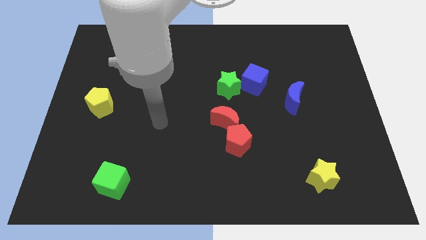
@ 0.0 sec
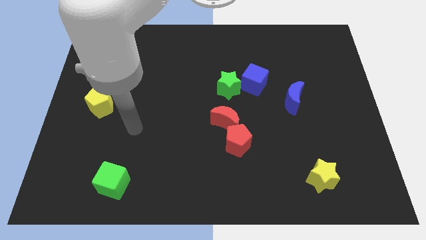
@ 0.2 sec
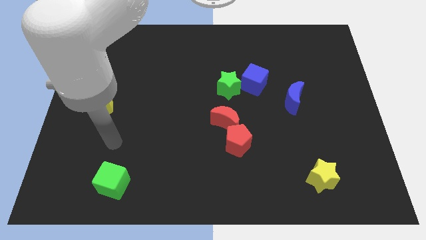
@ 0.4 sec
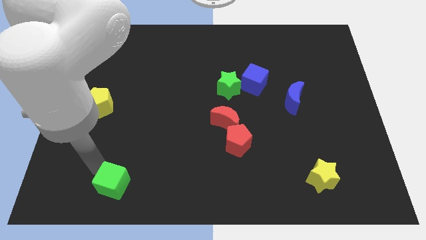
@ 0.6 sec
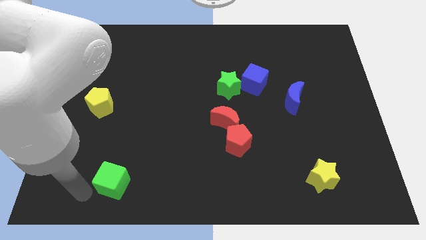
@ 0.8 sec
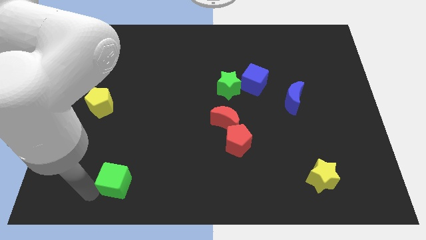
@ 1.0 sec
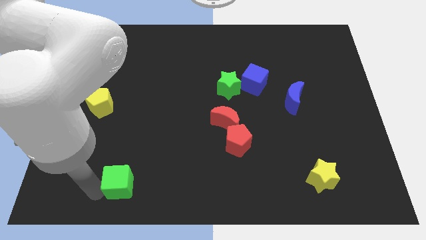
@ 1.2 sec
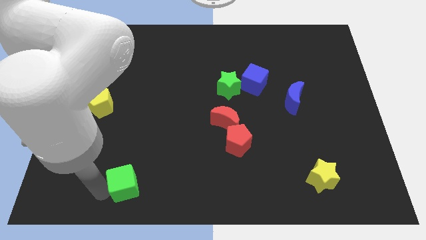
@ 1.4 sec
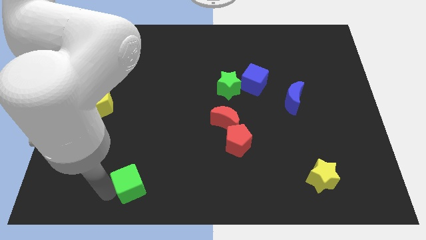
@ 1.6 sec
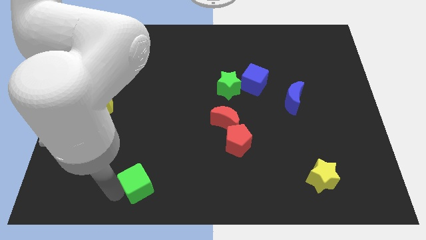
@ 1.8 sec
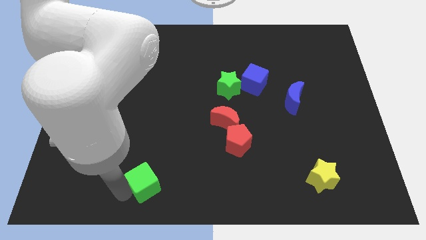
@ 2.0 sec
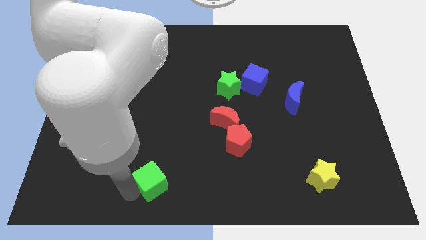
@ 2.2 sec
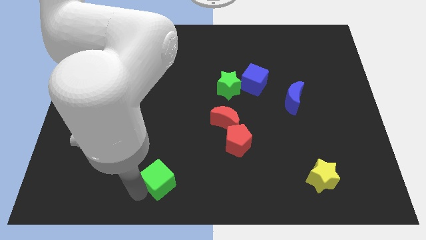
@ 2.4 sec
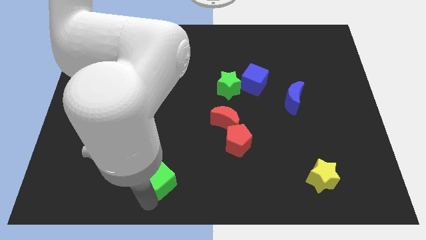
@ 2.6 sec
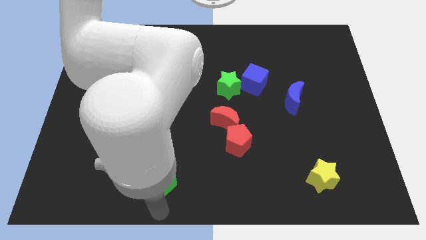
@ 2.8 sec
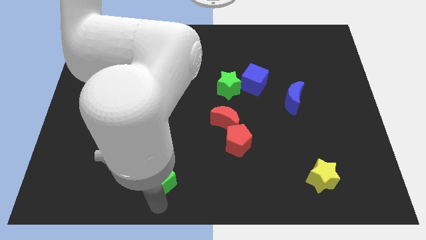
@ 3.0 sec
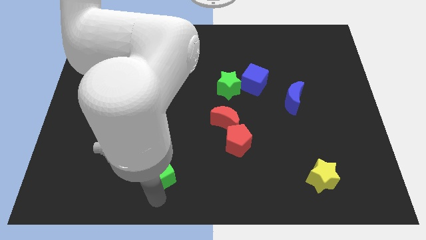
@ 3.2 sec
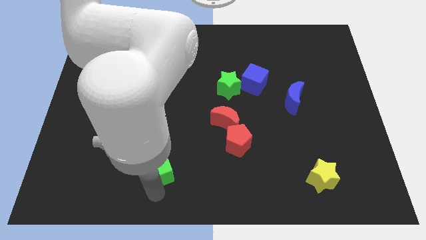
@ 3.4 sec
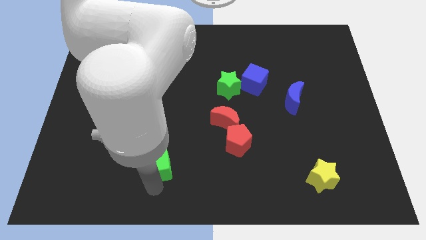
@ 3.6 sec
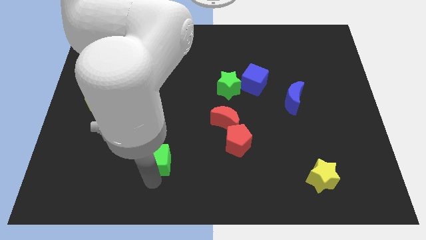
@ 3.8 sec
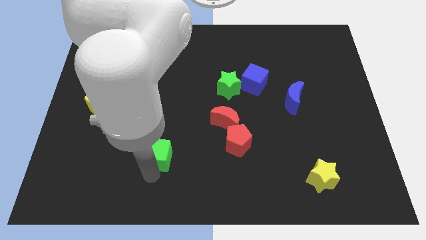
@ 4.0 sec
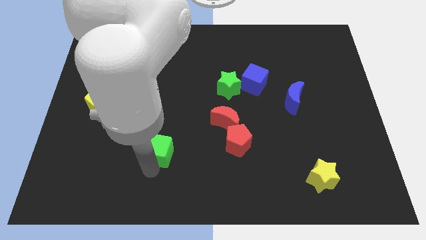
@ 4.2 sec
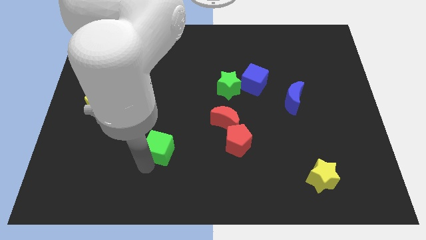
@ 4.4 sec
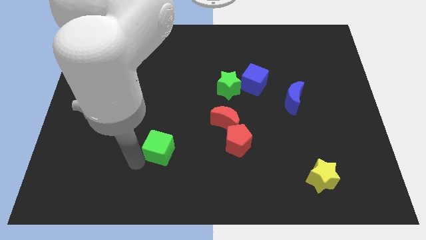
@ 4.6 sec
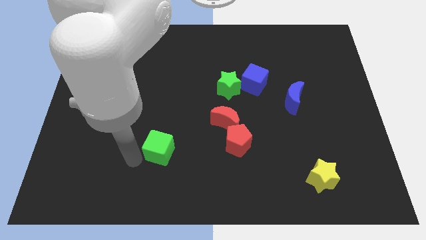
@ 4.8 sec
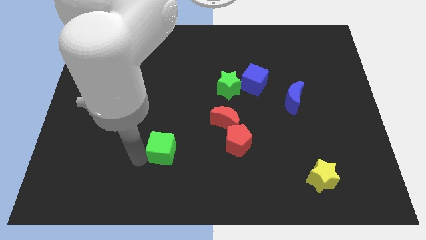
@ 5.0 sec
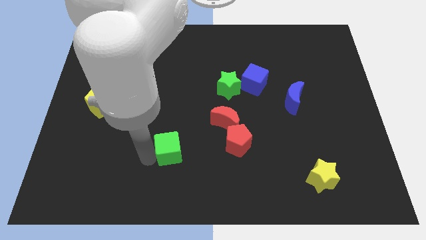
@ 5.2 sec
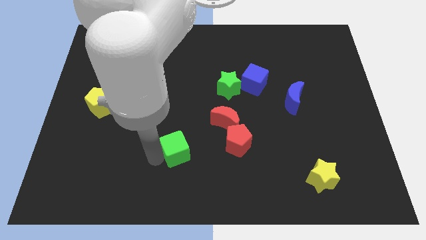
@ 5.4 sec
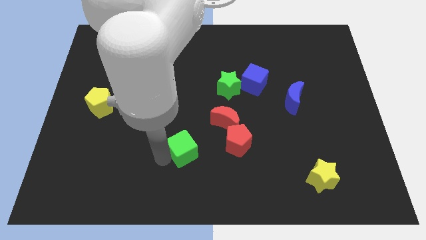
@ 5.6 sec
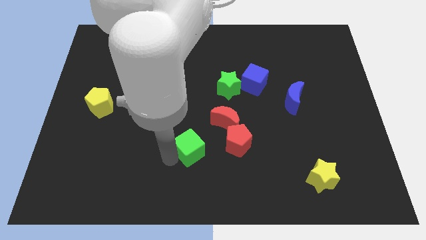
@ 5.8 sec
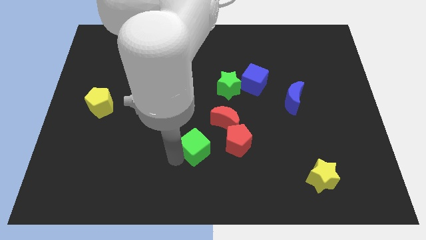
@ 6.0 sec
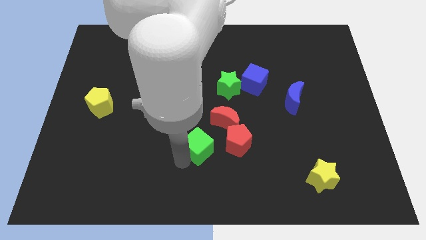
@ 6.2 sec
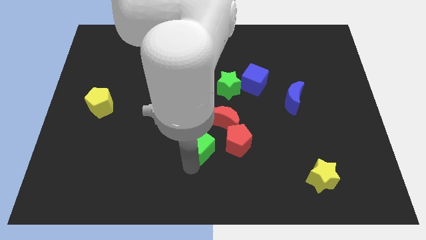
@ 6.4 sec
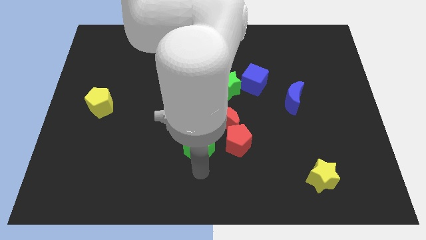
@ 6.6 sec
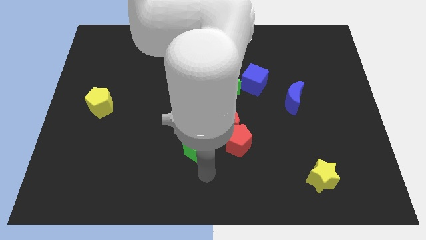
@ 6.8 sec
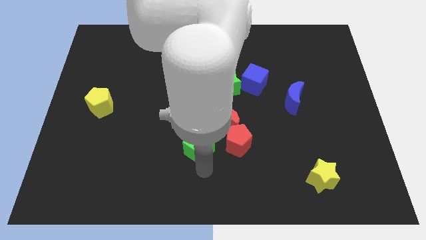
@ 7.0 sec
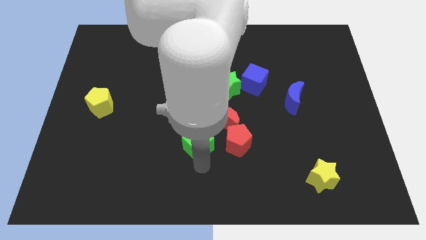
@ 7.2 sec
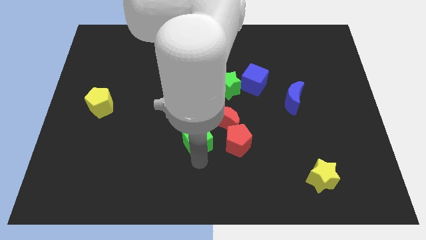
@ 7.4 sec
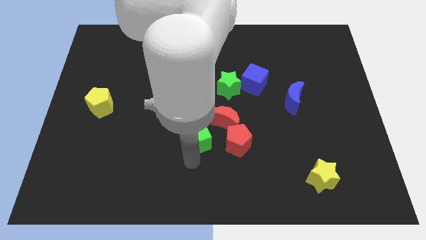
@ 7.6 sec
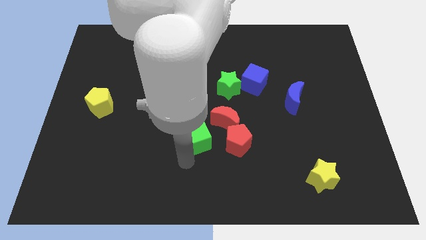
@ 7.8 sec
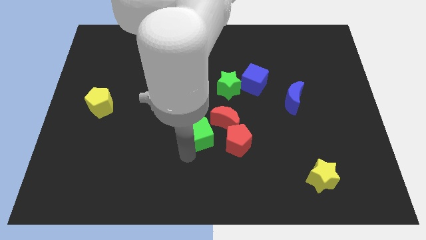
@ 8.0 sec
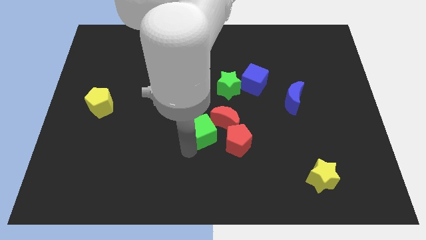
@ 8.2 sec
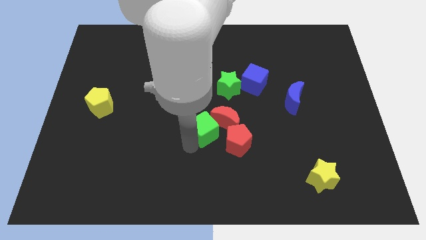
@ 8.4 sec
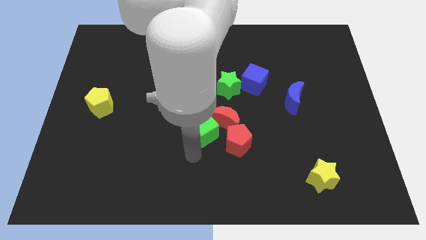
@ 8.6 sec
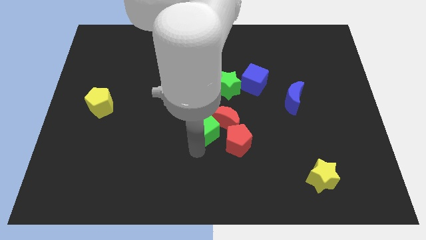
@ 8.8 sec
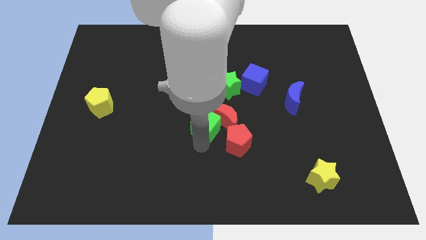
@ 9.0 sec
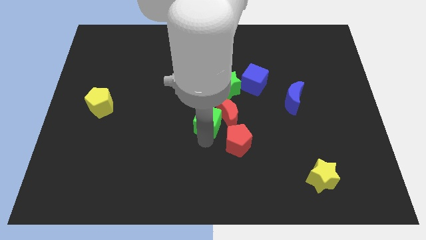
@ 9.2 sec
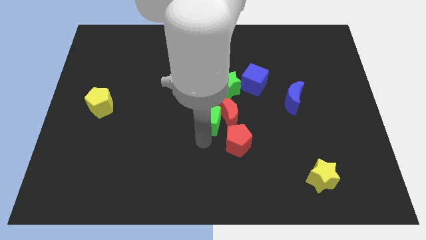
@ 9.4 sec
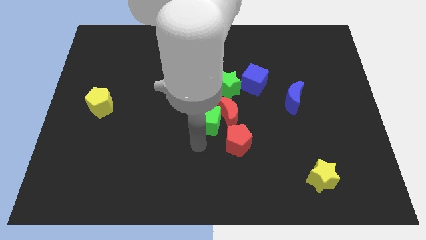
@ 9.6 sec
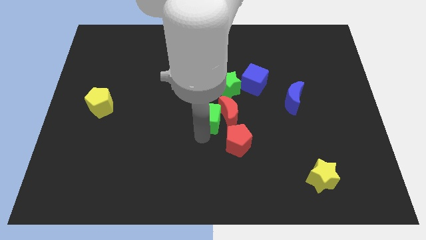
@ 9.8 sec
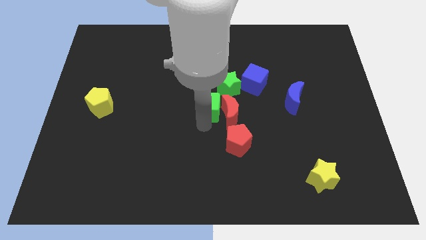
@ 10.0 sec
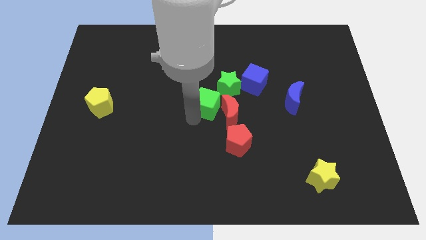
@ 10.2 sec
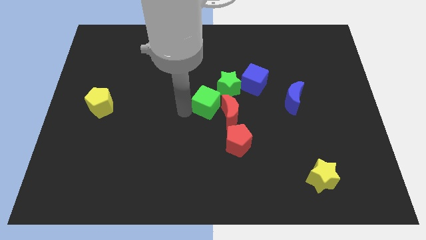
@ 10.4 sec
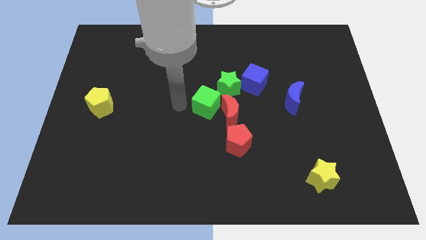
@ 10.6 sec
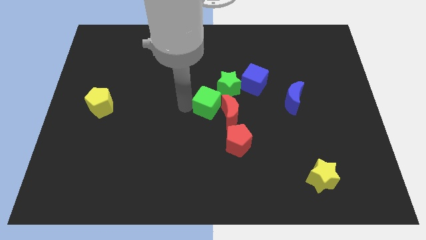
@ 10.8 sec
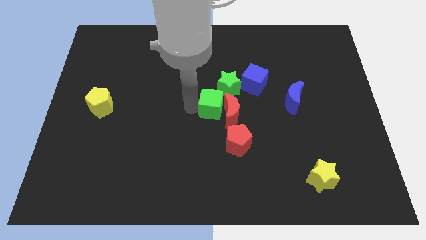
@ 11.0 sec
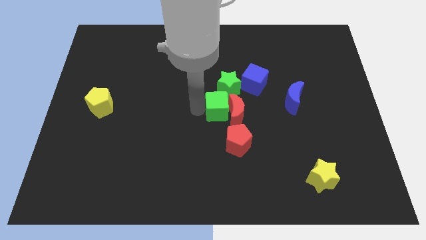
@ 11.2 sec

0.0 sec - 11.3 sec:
slide the green cube above the red pentagon

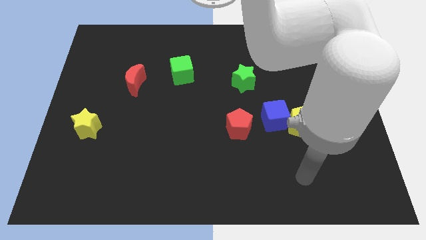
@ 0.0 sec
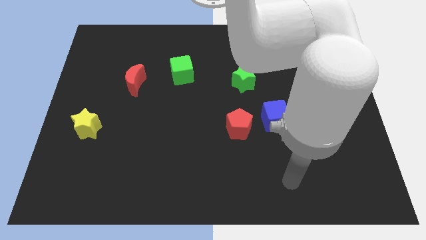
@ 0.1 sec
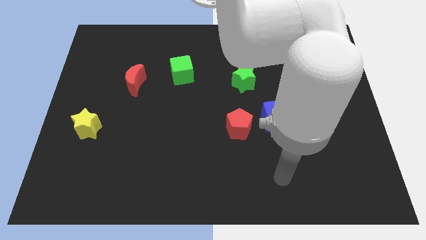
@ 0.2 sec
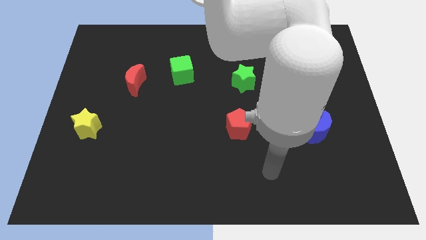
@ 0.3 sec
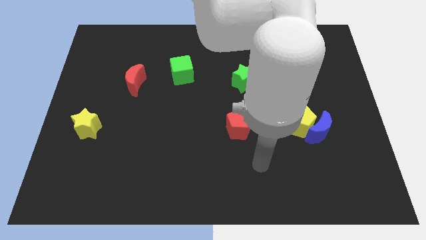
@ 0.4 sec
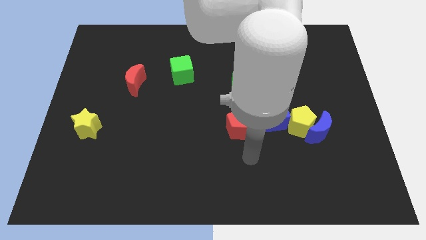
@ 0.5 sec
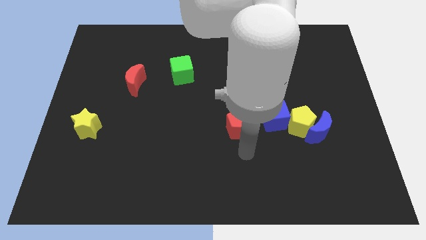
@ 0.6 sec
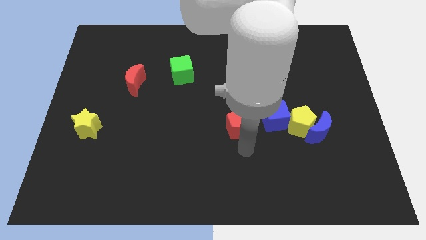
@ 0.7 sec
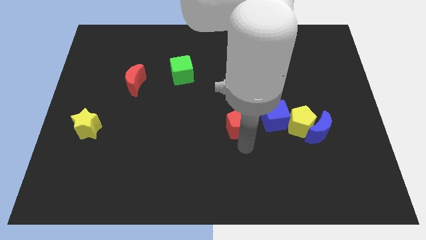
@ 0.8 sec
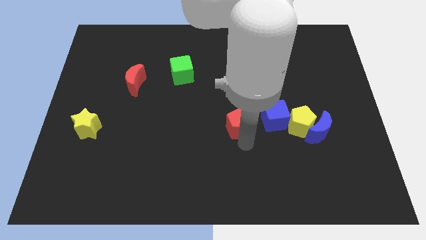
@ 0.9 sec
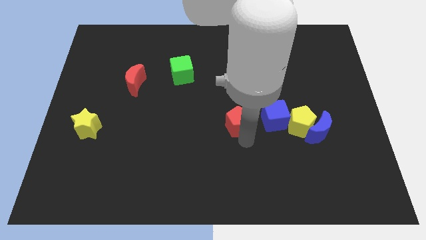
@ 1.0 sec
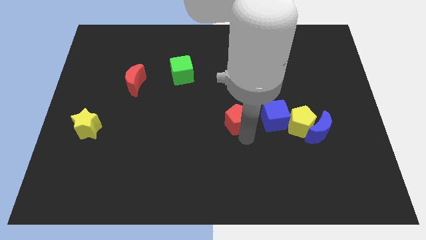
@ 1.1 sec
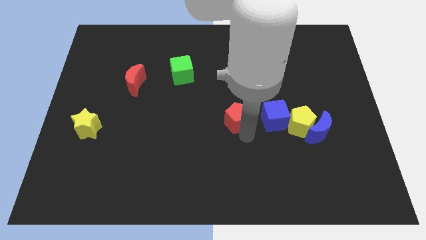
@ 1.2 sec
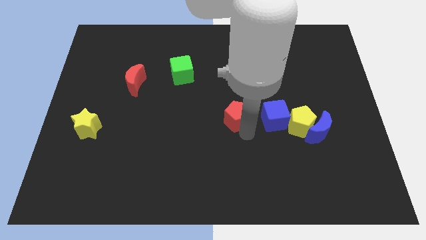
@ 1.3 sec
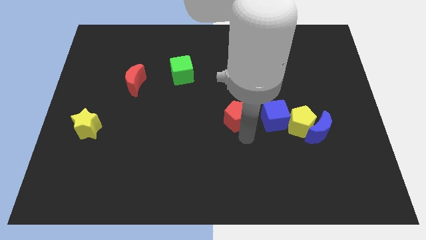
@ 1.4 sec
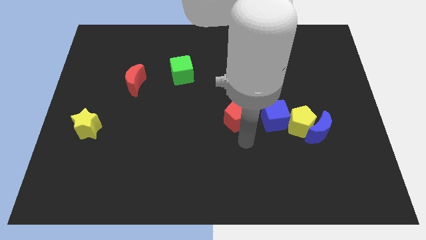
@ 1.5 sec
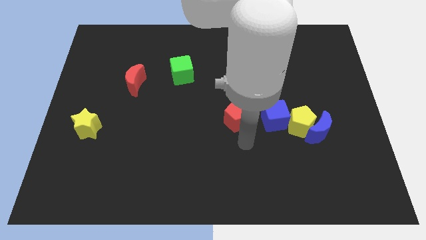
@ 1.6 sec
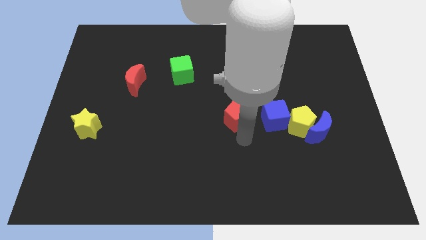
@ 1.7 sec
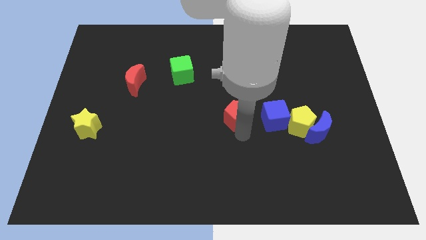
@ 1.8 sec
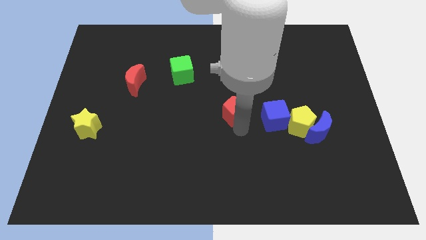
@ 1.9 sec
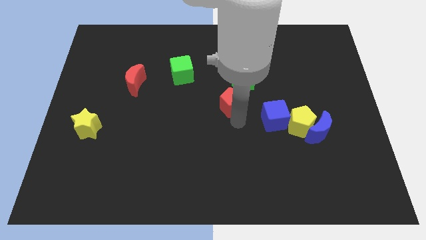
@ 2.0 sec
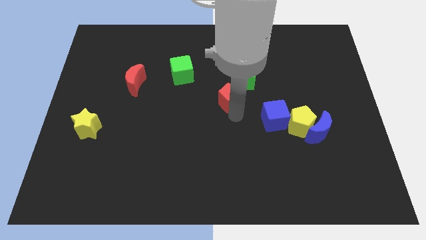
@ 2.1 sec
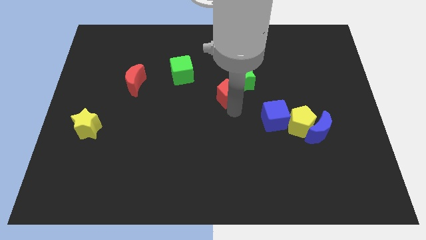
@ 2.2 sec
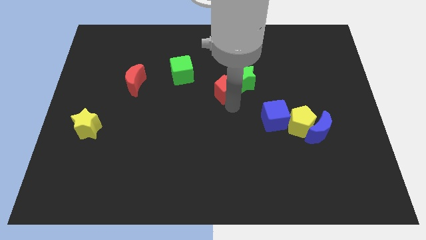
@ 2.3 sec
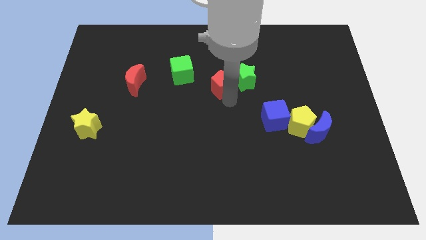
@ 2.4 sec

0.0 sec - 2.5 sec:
push the red pentagon right of the green cube
